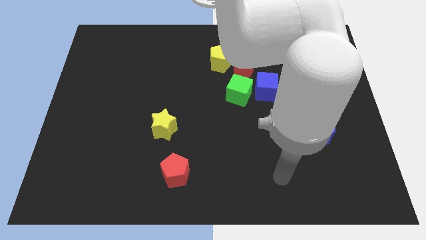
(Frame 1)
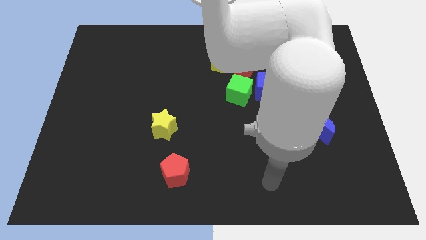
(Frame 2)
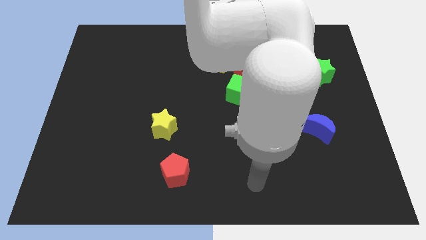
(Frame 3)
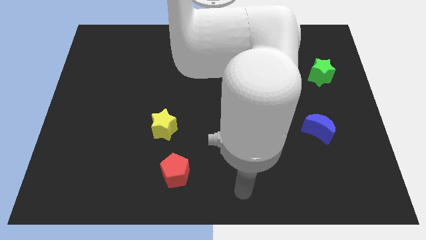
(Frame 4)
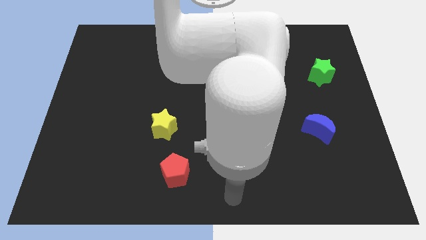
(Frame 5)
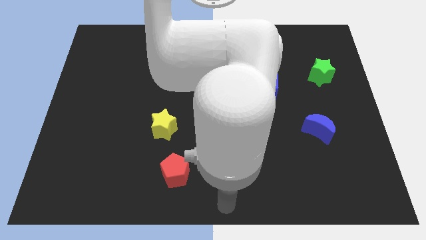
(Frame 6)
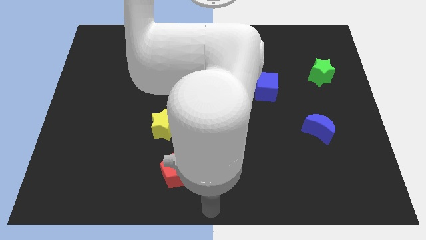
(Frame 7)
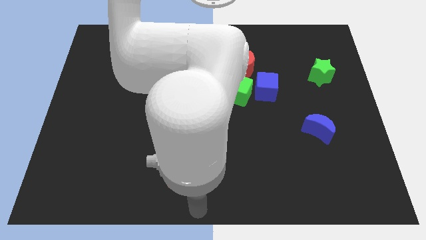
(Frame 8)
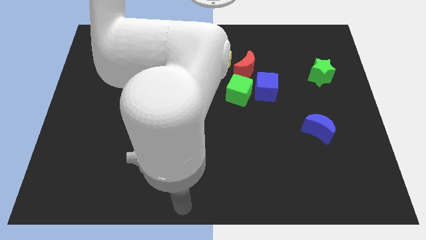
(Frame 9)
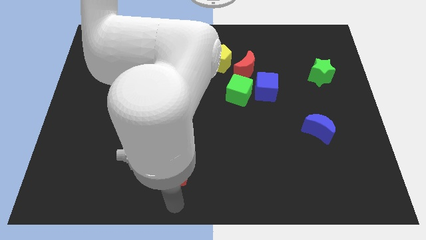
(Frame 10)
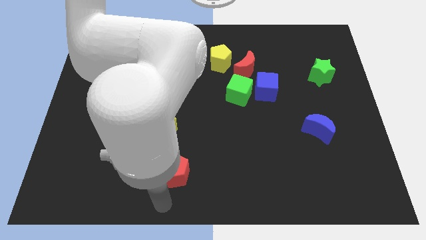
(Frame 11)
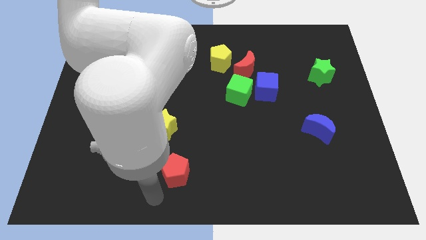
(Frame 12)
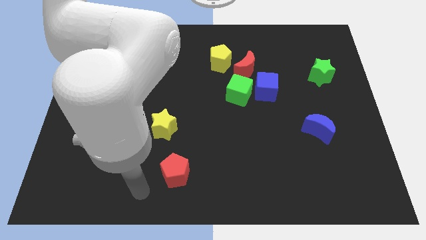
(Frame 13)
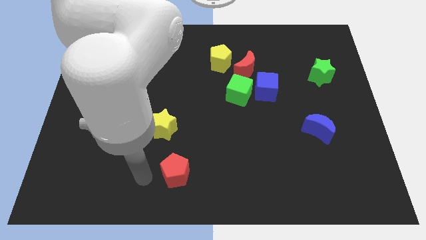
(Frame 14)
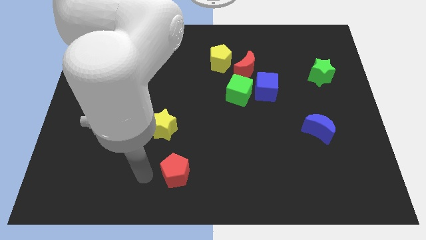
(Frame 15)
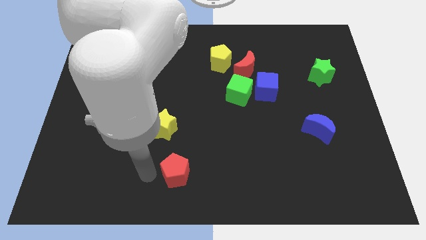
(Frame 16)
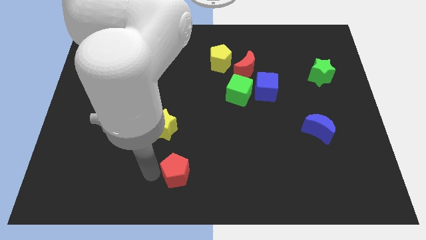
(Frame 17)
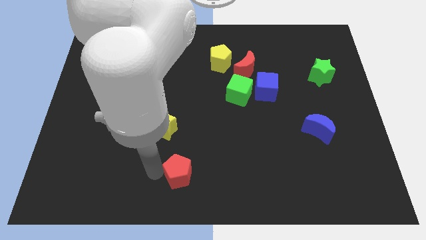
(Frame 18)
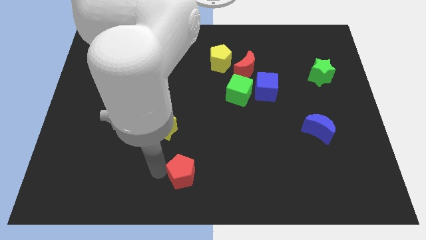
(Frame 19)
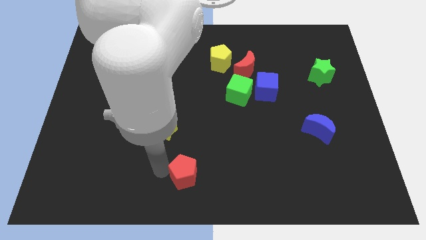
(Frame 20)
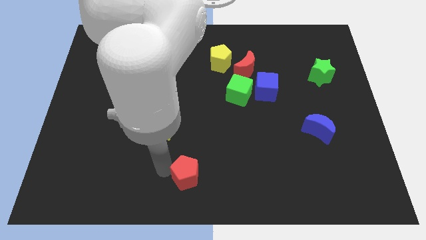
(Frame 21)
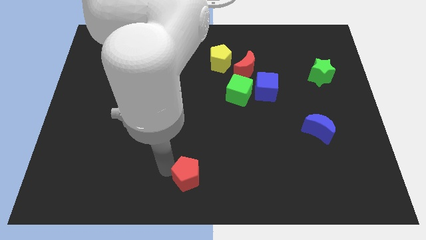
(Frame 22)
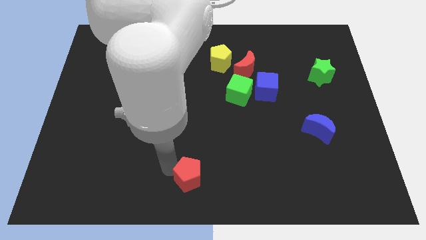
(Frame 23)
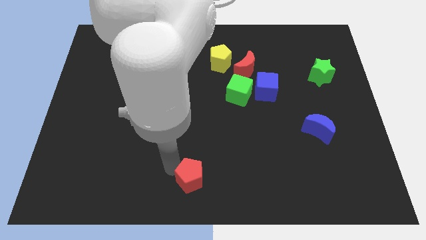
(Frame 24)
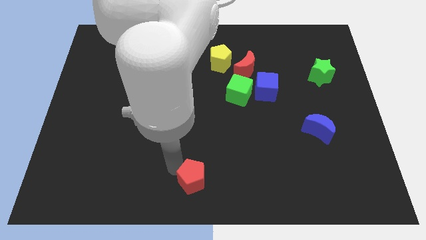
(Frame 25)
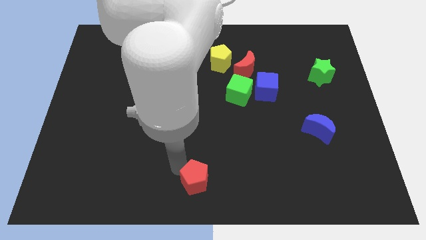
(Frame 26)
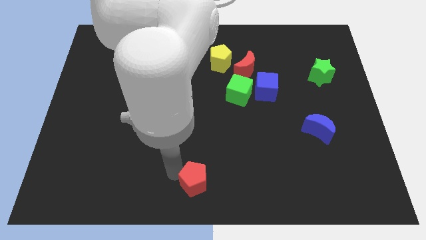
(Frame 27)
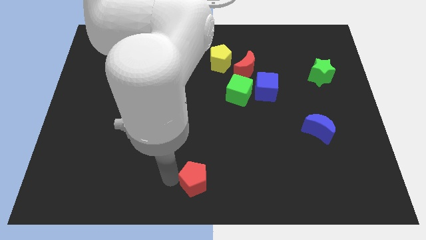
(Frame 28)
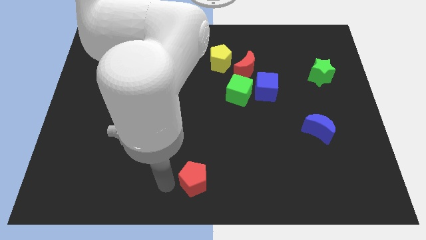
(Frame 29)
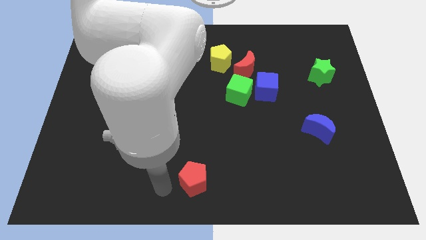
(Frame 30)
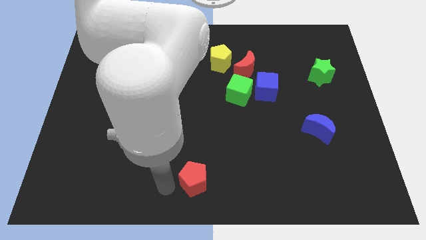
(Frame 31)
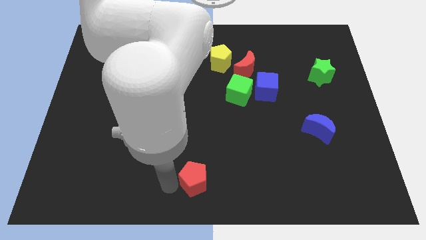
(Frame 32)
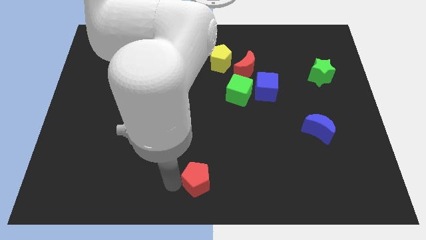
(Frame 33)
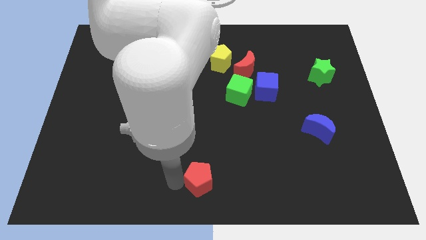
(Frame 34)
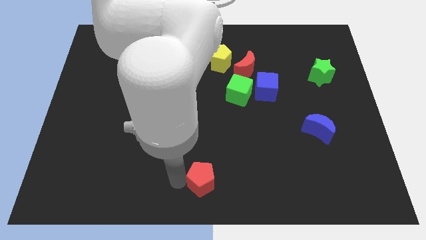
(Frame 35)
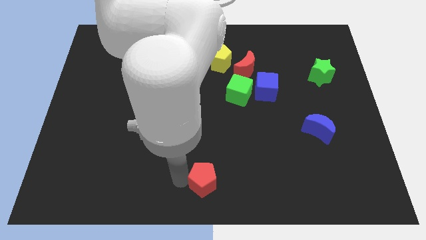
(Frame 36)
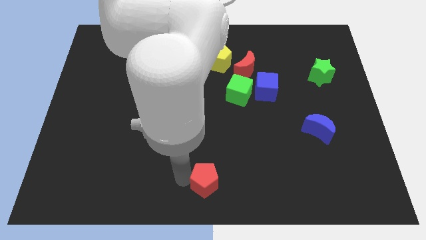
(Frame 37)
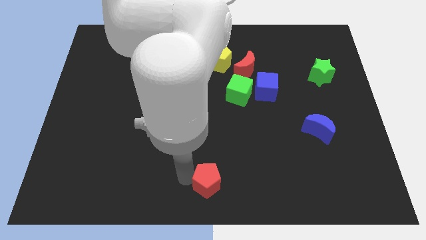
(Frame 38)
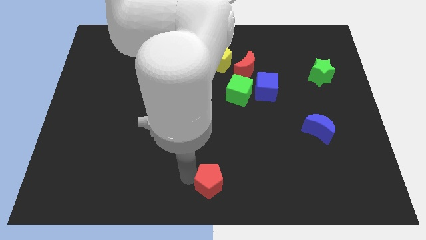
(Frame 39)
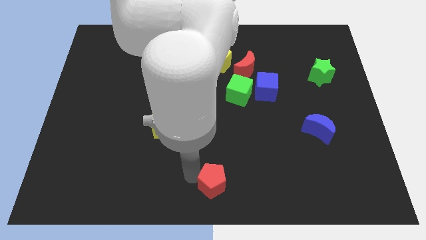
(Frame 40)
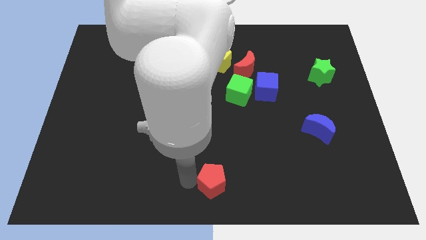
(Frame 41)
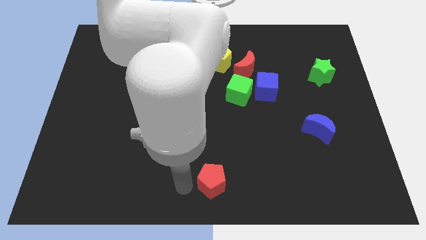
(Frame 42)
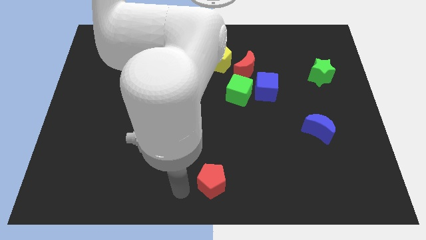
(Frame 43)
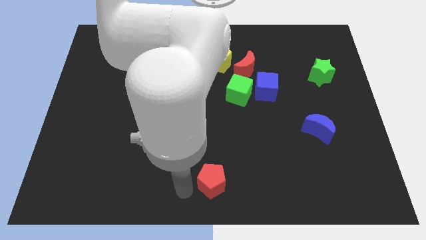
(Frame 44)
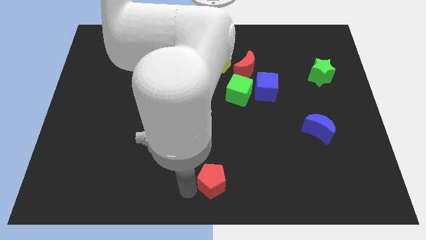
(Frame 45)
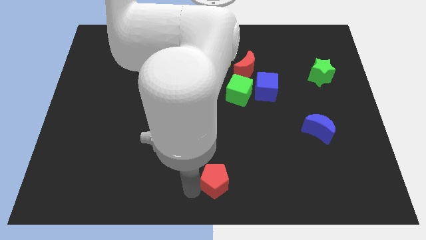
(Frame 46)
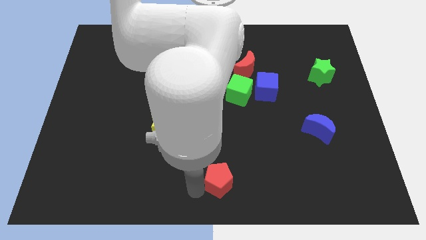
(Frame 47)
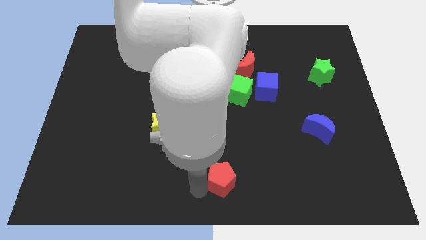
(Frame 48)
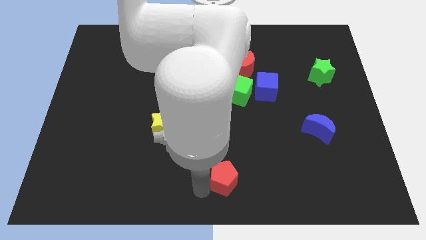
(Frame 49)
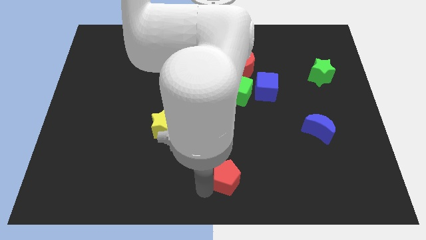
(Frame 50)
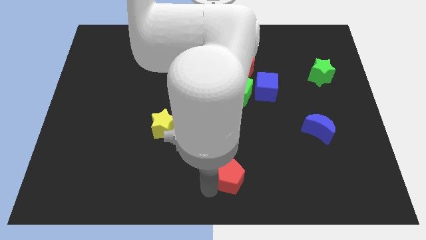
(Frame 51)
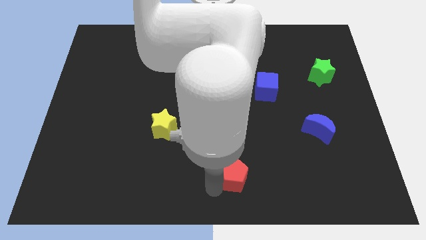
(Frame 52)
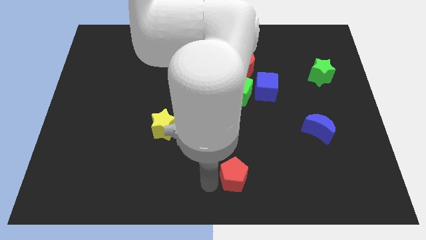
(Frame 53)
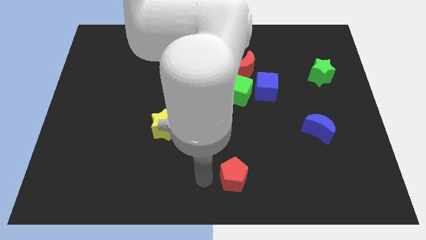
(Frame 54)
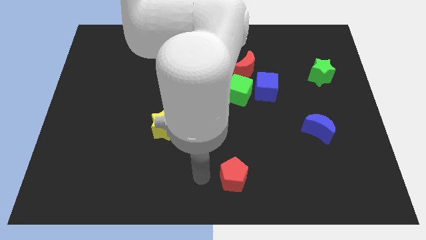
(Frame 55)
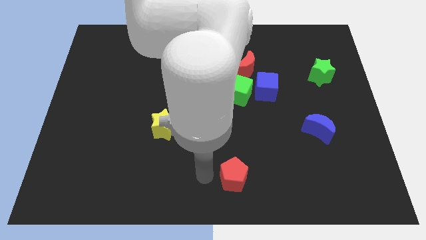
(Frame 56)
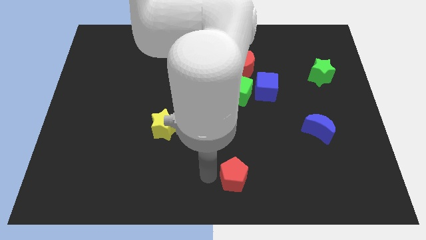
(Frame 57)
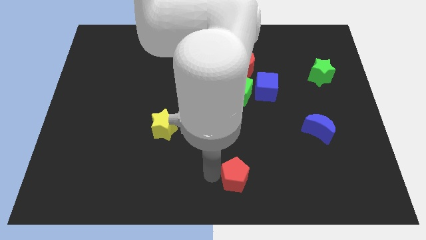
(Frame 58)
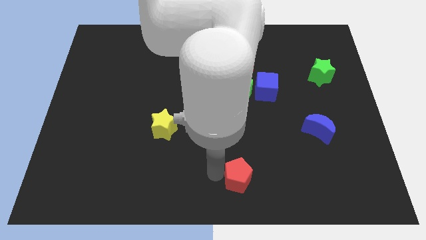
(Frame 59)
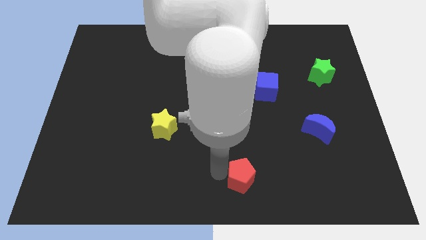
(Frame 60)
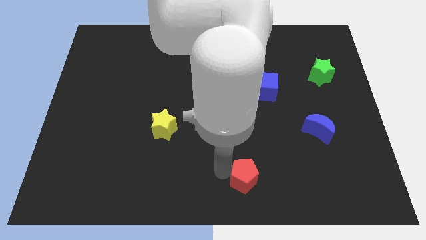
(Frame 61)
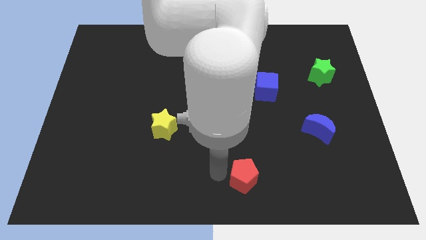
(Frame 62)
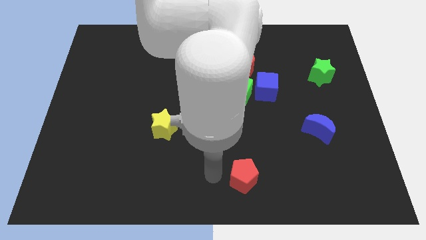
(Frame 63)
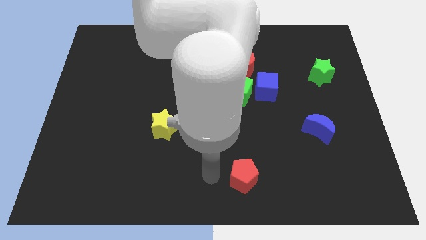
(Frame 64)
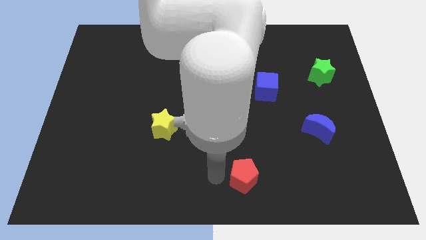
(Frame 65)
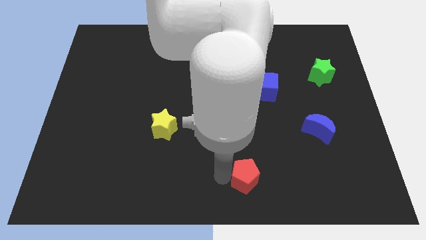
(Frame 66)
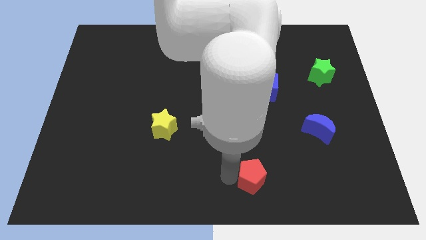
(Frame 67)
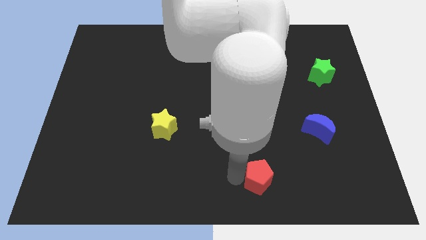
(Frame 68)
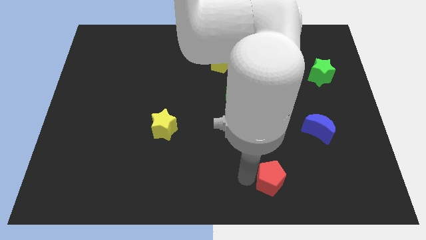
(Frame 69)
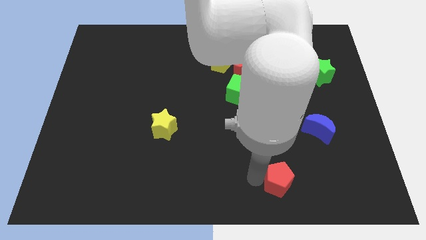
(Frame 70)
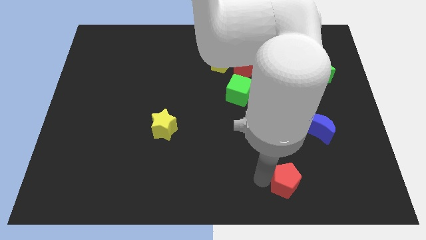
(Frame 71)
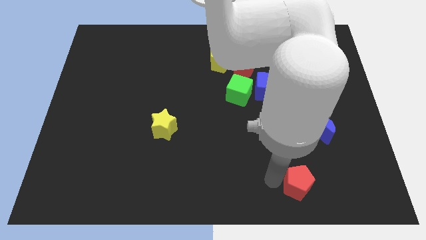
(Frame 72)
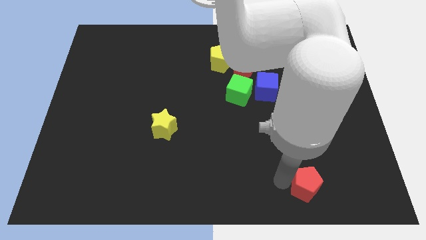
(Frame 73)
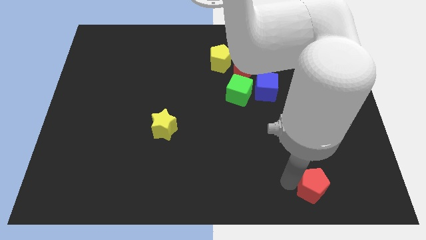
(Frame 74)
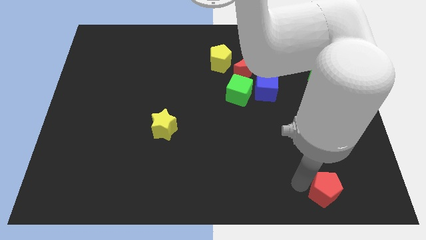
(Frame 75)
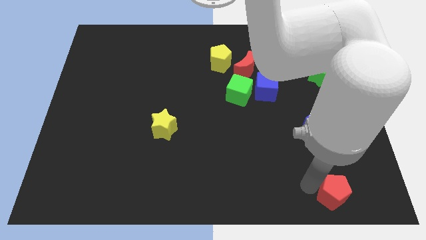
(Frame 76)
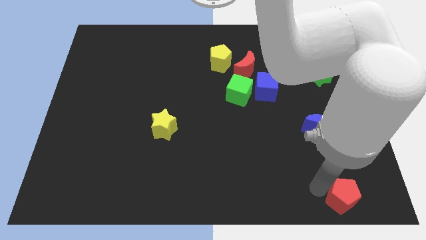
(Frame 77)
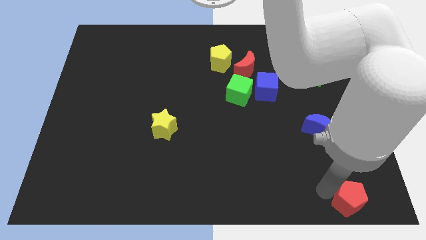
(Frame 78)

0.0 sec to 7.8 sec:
move the red pentagon to the bottom right of the board
